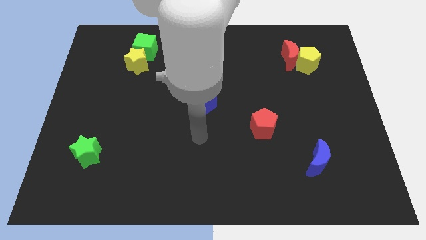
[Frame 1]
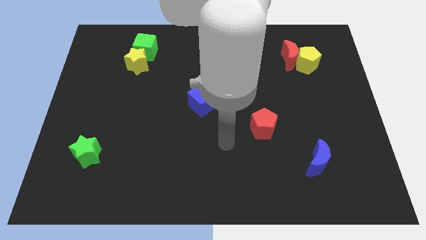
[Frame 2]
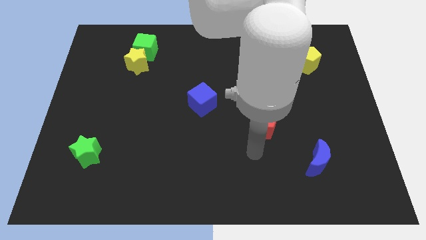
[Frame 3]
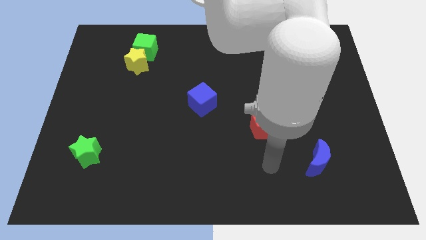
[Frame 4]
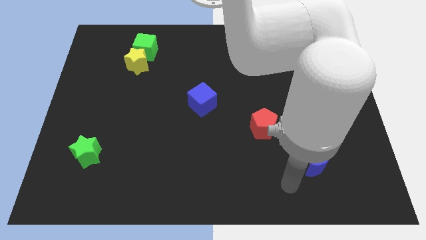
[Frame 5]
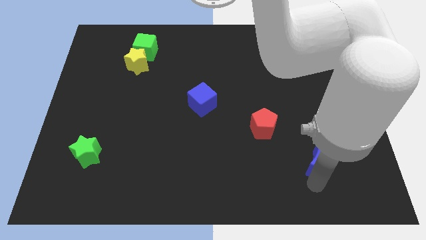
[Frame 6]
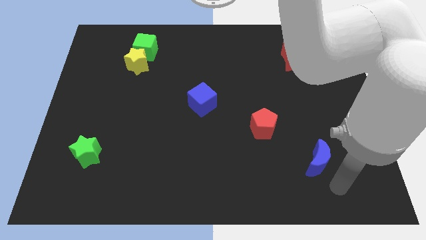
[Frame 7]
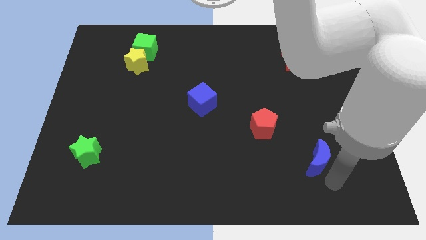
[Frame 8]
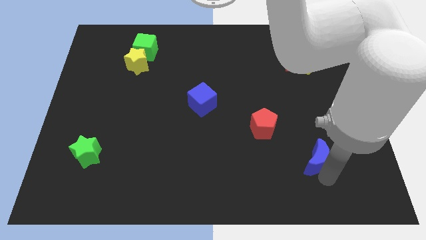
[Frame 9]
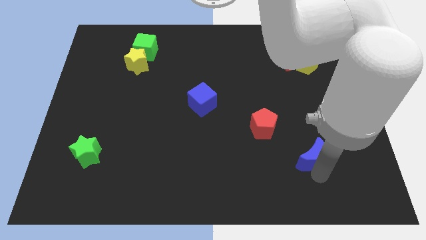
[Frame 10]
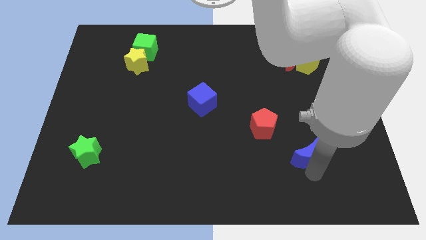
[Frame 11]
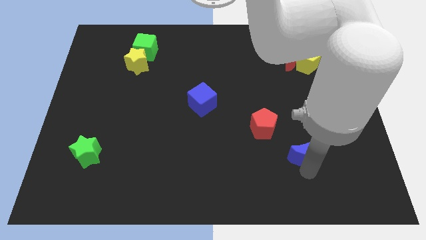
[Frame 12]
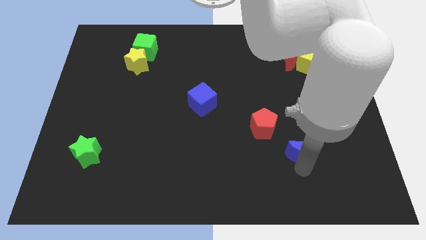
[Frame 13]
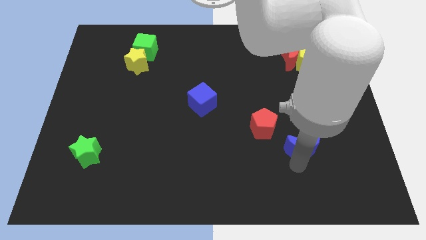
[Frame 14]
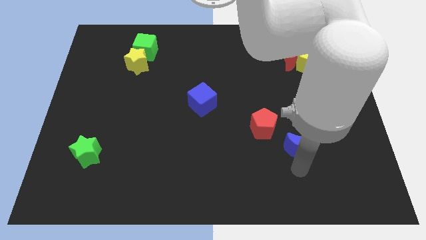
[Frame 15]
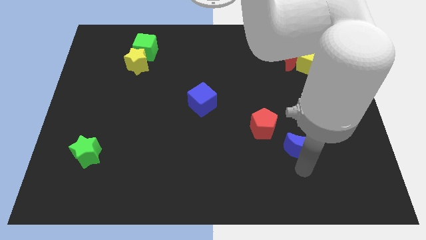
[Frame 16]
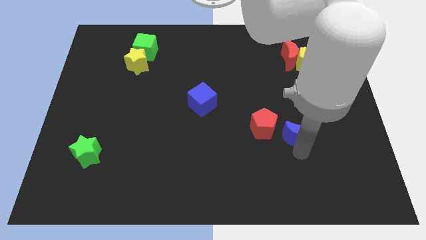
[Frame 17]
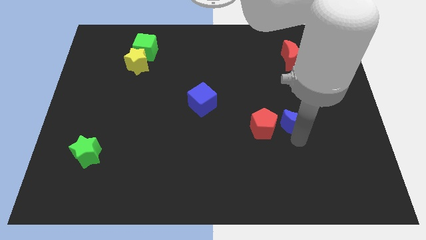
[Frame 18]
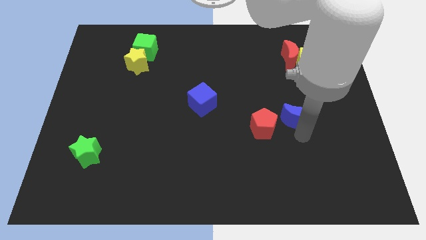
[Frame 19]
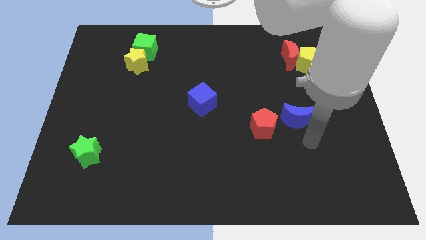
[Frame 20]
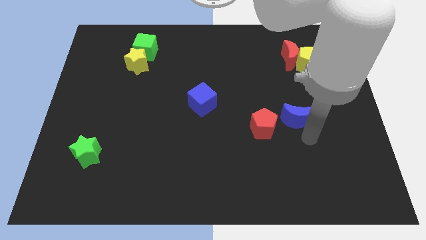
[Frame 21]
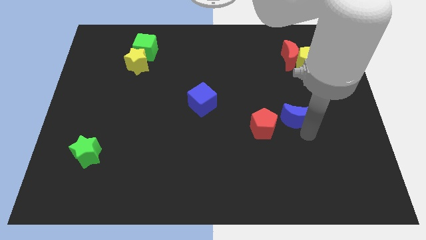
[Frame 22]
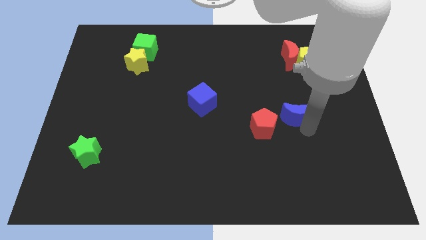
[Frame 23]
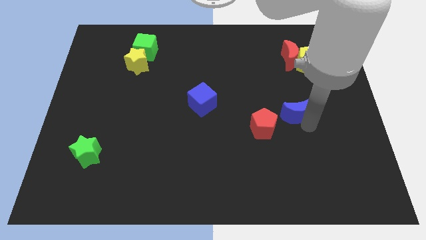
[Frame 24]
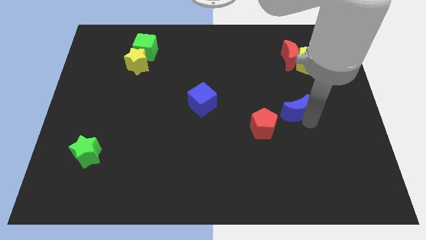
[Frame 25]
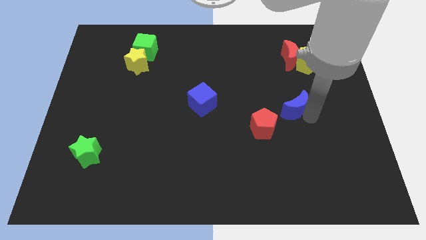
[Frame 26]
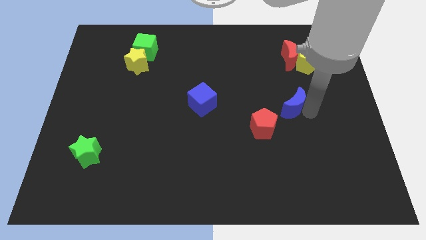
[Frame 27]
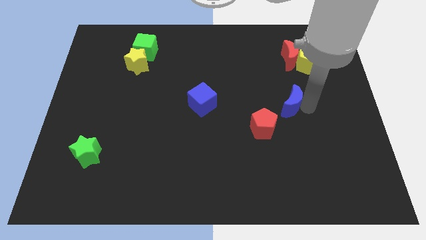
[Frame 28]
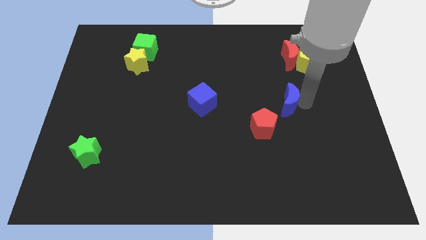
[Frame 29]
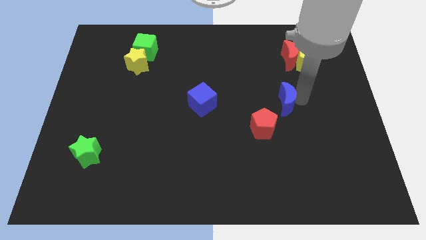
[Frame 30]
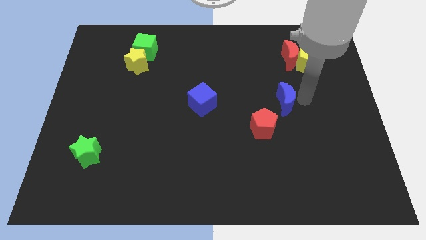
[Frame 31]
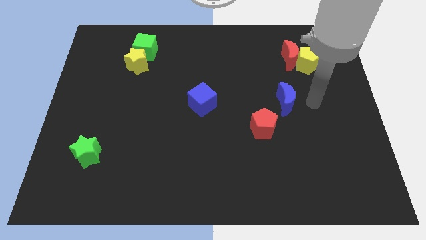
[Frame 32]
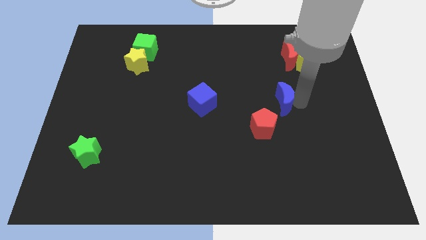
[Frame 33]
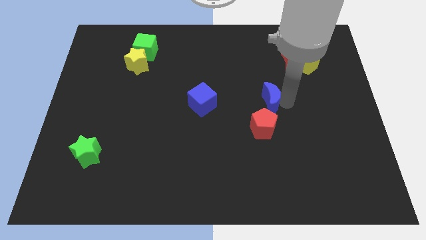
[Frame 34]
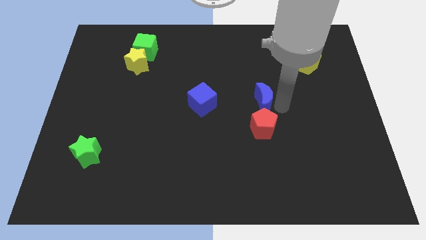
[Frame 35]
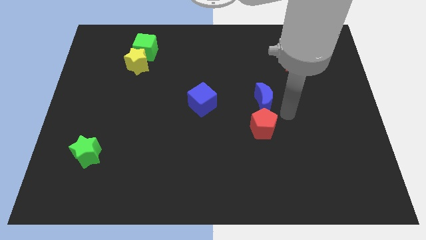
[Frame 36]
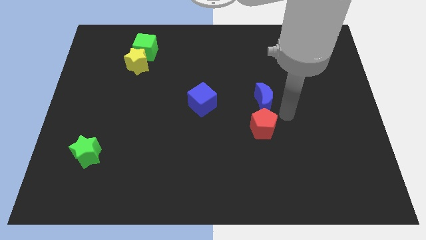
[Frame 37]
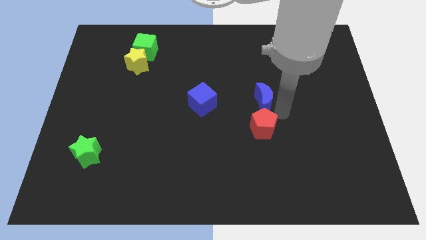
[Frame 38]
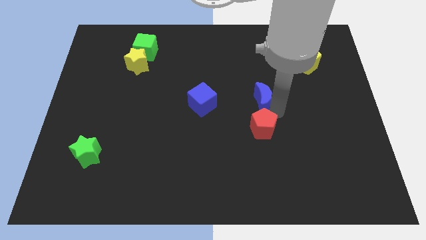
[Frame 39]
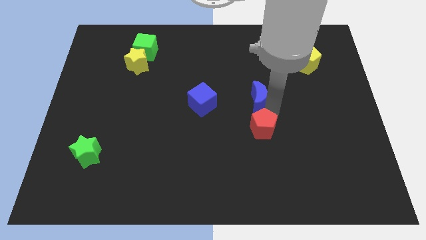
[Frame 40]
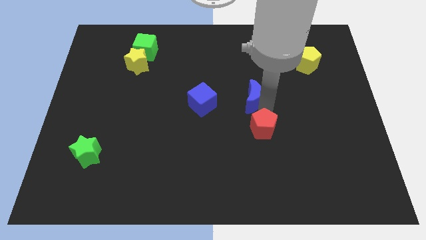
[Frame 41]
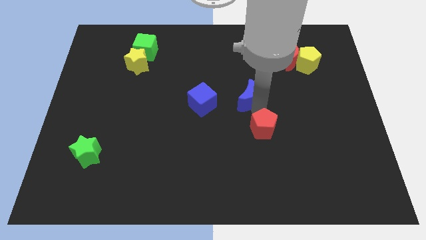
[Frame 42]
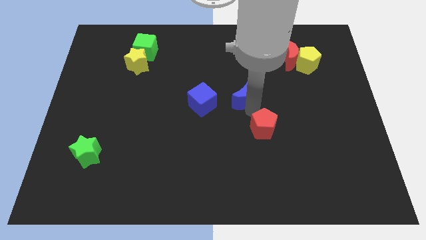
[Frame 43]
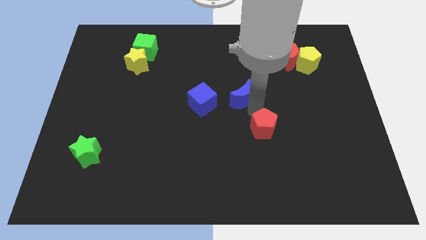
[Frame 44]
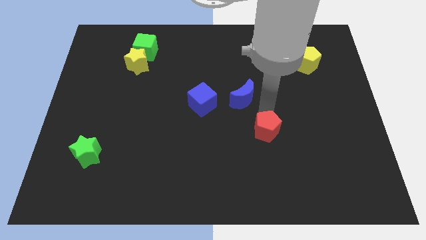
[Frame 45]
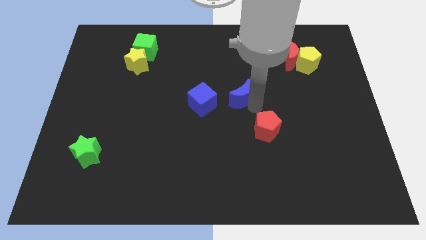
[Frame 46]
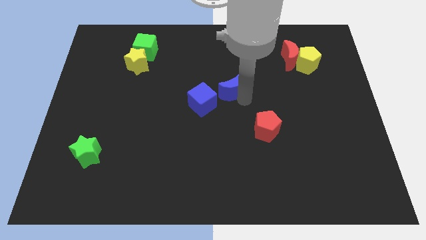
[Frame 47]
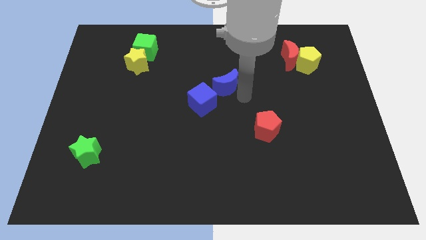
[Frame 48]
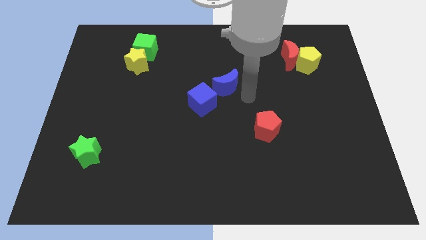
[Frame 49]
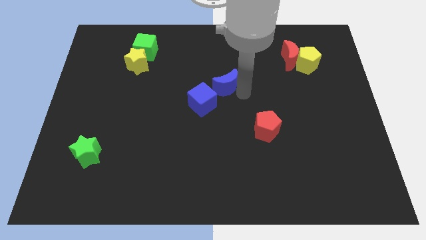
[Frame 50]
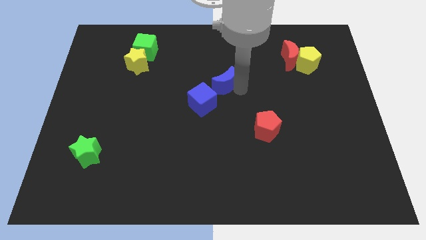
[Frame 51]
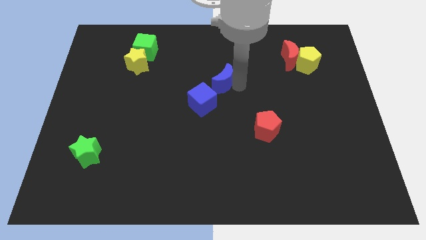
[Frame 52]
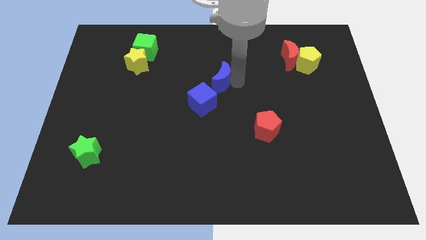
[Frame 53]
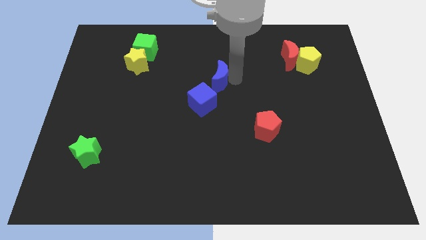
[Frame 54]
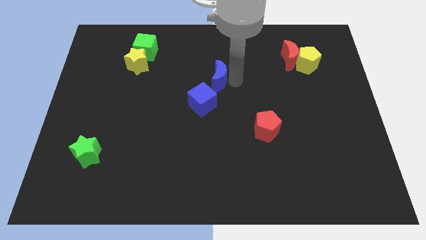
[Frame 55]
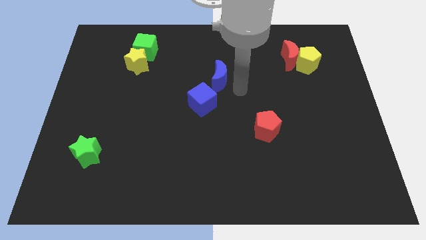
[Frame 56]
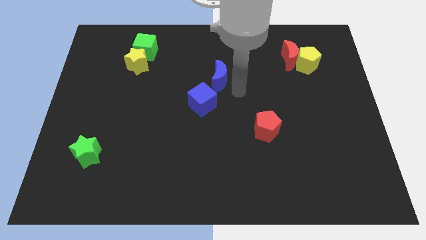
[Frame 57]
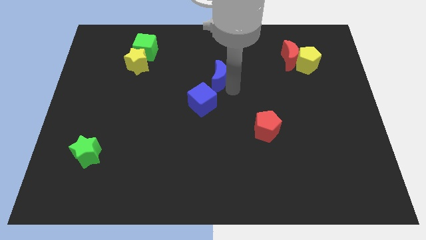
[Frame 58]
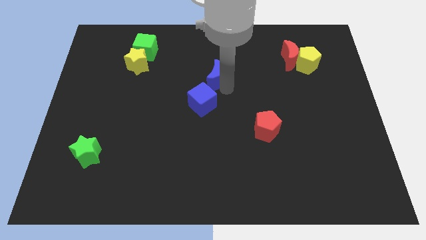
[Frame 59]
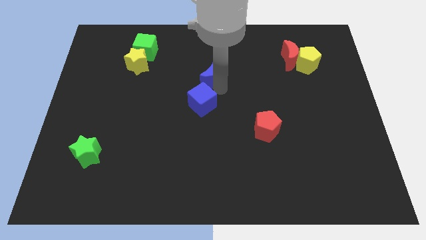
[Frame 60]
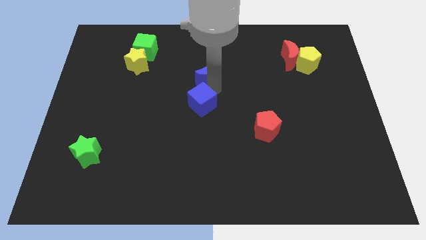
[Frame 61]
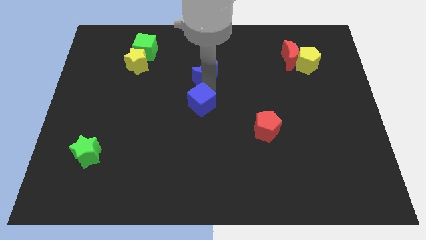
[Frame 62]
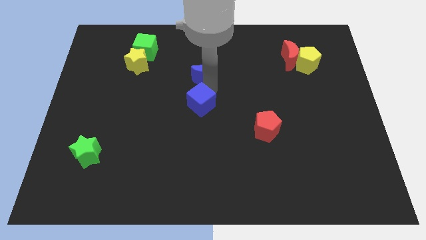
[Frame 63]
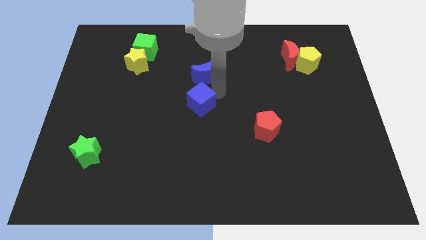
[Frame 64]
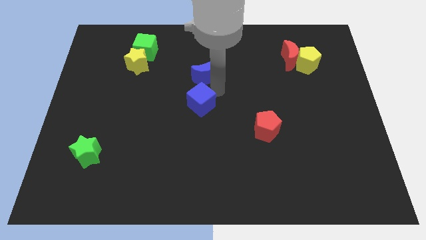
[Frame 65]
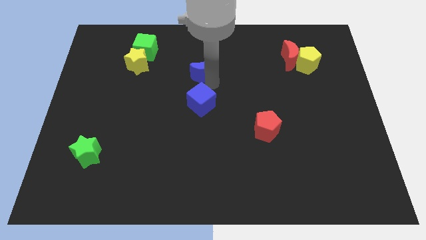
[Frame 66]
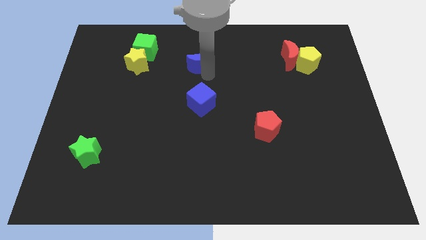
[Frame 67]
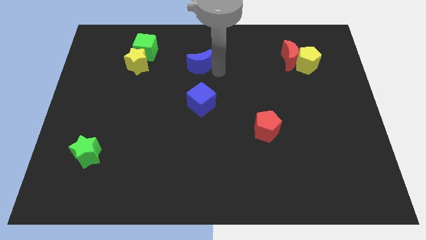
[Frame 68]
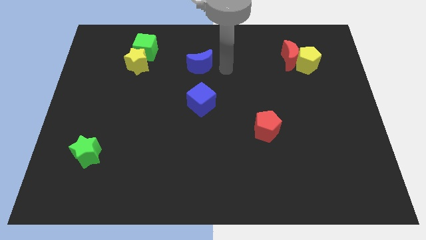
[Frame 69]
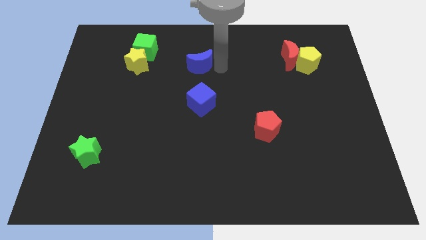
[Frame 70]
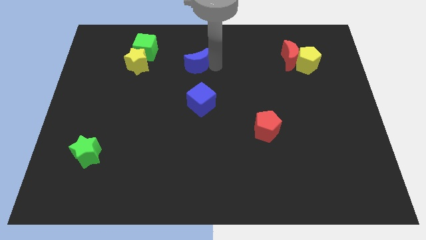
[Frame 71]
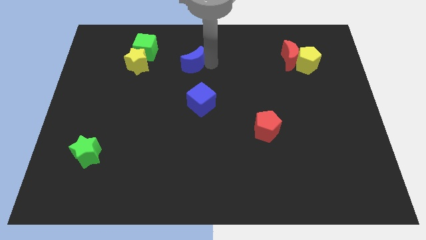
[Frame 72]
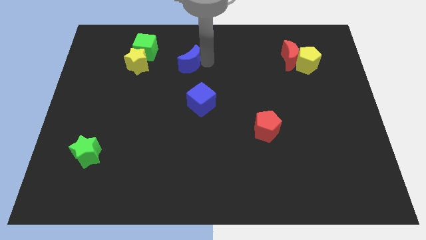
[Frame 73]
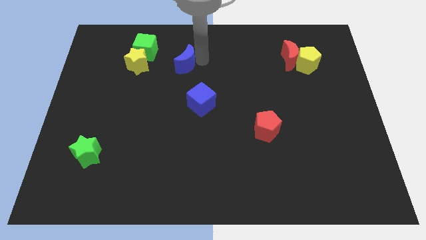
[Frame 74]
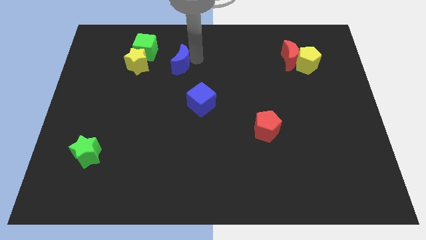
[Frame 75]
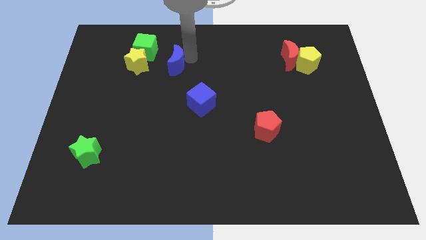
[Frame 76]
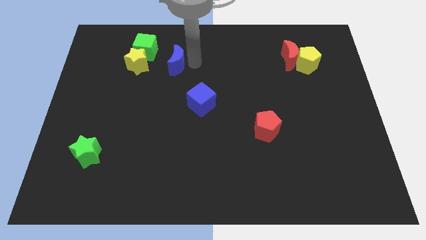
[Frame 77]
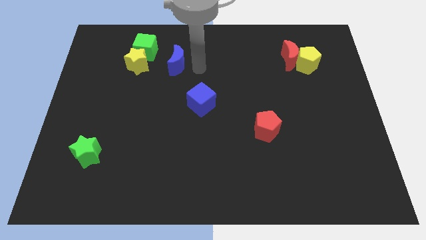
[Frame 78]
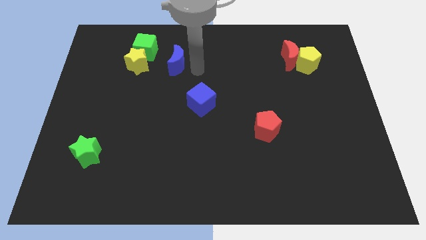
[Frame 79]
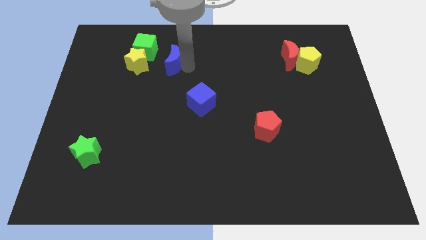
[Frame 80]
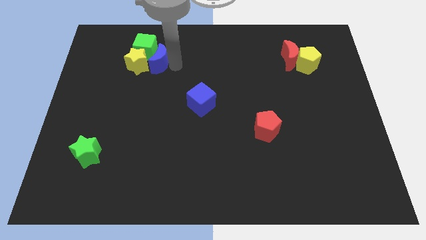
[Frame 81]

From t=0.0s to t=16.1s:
move the blue moon close to the green cube
